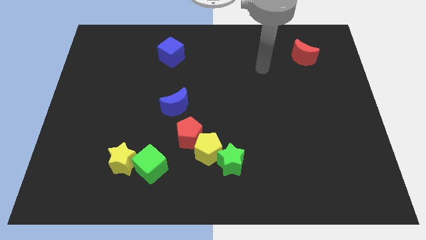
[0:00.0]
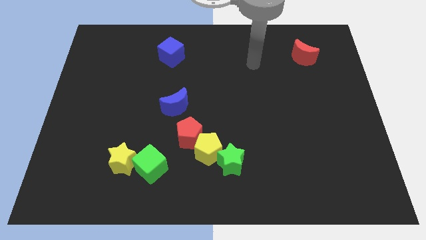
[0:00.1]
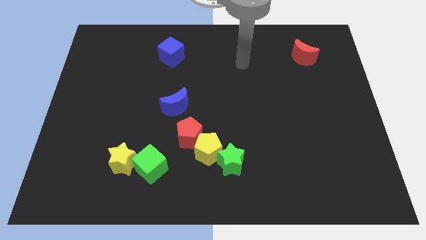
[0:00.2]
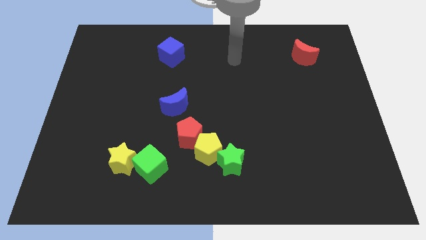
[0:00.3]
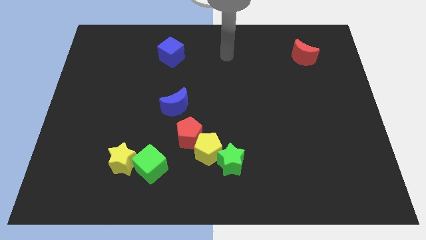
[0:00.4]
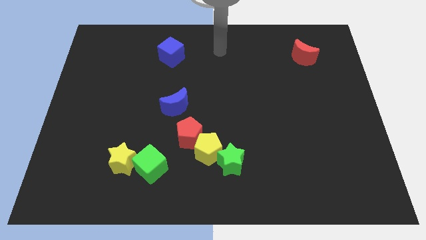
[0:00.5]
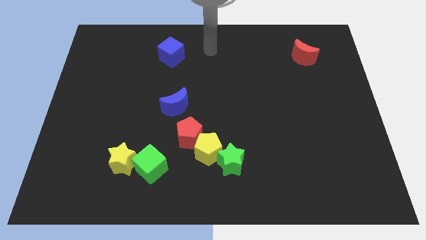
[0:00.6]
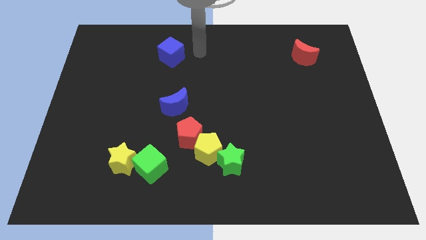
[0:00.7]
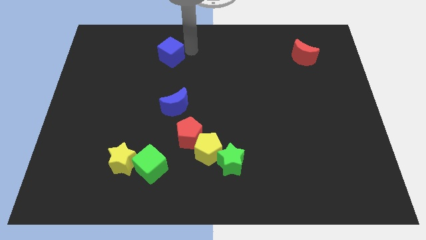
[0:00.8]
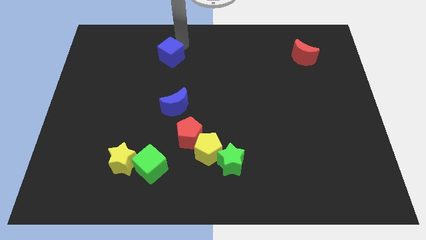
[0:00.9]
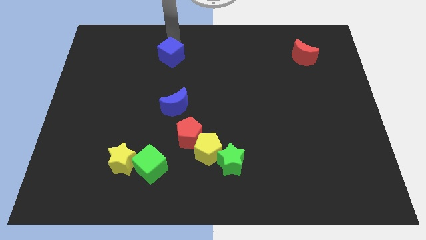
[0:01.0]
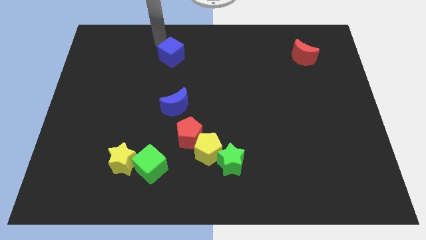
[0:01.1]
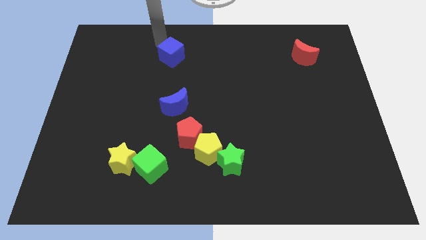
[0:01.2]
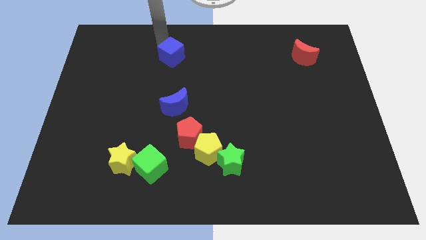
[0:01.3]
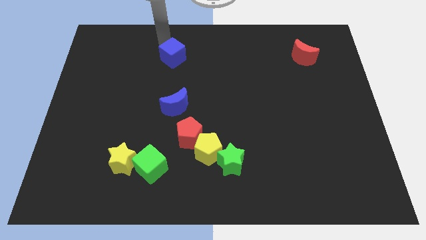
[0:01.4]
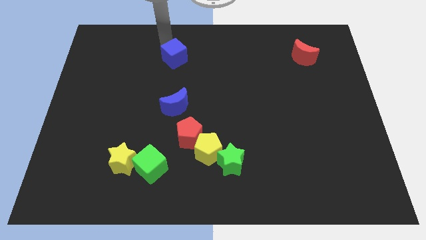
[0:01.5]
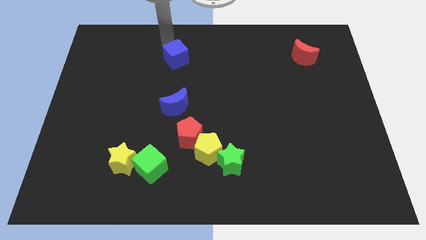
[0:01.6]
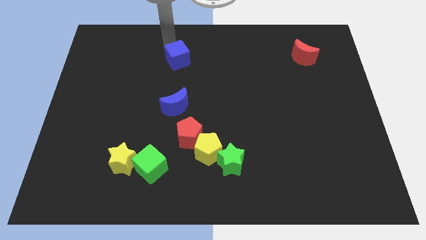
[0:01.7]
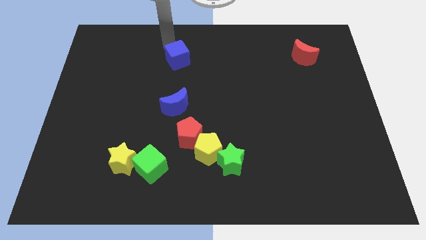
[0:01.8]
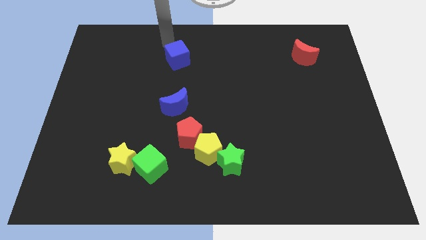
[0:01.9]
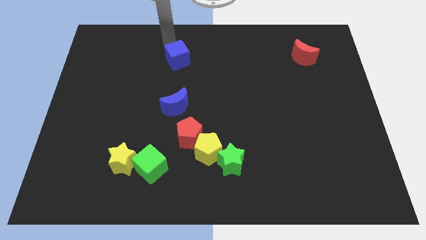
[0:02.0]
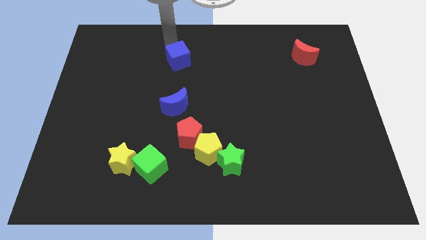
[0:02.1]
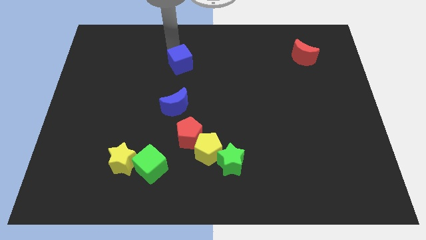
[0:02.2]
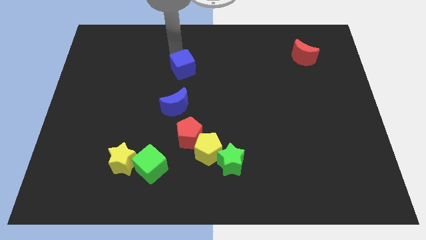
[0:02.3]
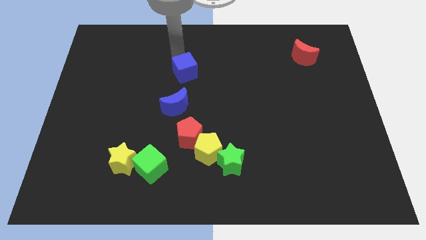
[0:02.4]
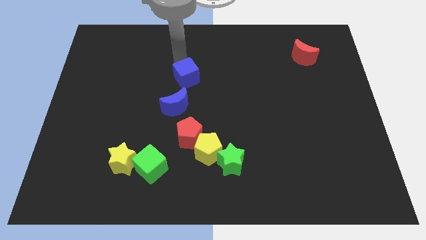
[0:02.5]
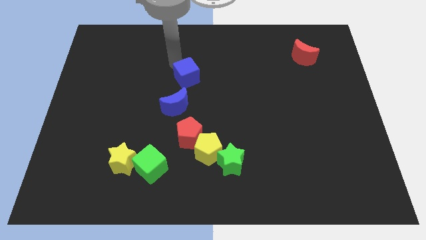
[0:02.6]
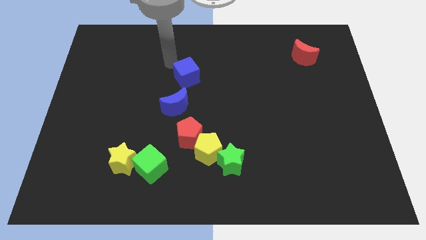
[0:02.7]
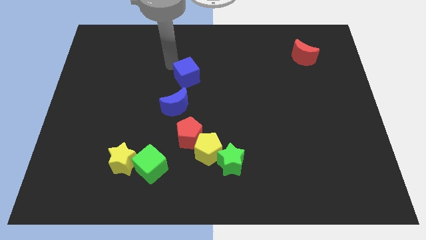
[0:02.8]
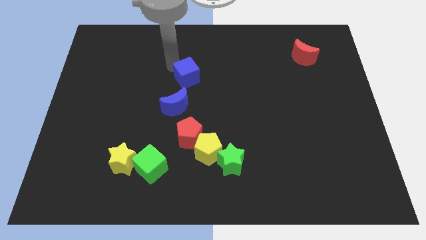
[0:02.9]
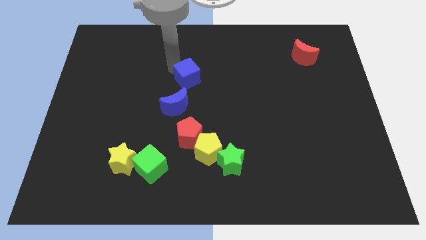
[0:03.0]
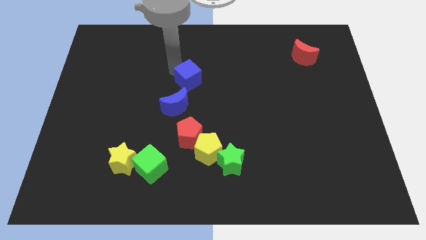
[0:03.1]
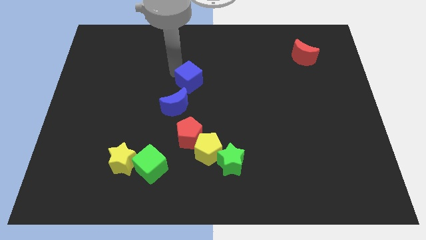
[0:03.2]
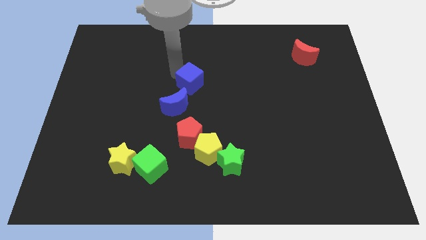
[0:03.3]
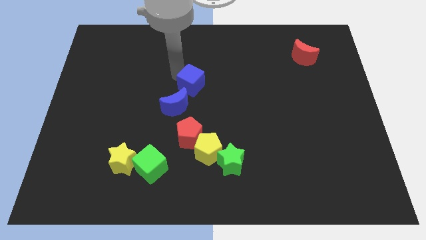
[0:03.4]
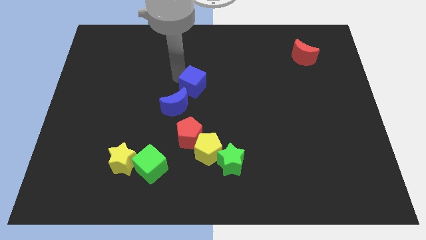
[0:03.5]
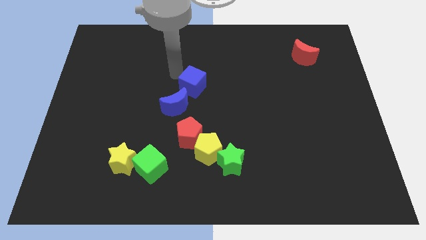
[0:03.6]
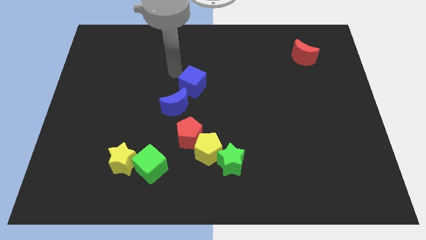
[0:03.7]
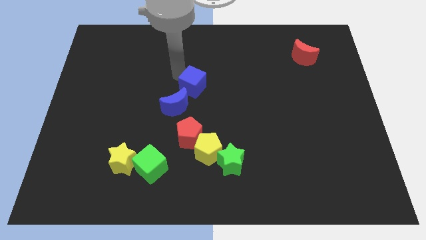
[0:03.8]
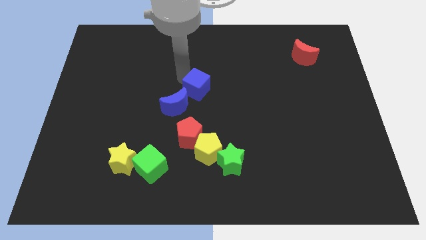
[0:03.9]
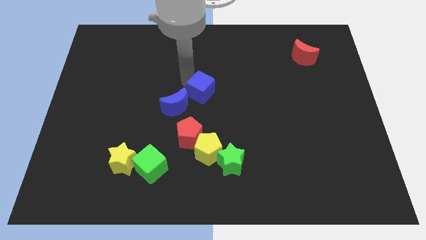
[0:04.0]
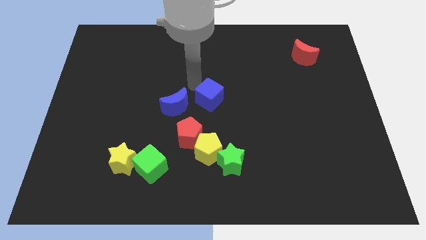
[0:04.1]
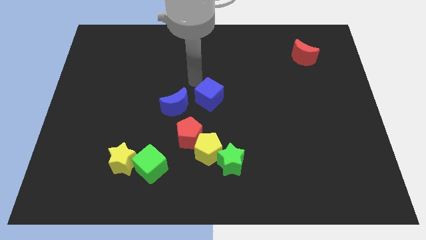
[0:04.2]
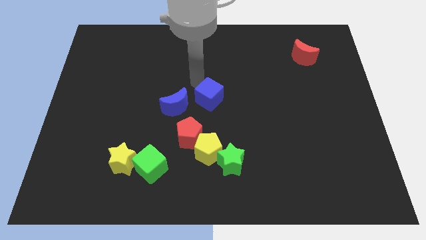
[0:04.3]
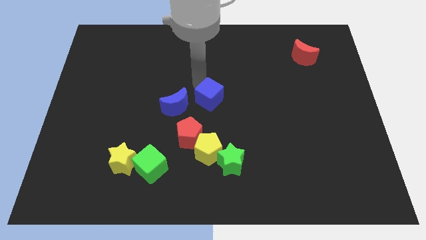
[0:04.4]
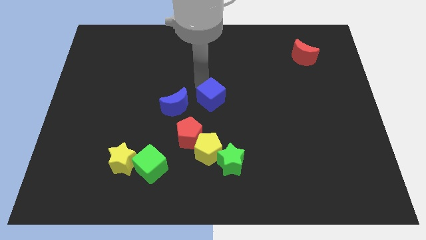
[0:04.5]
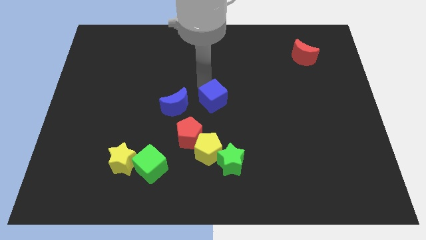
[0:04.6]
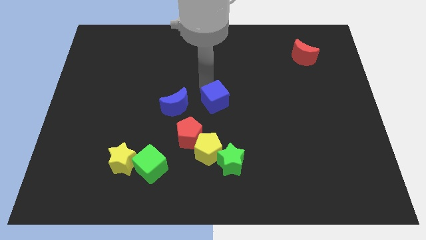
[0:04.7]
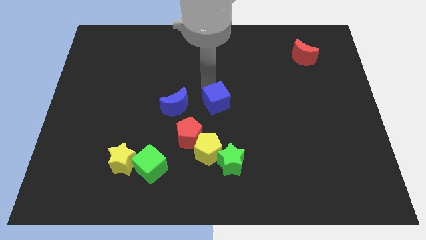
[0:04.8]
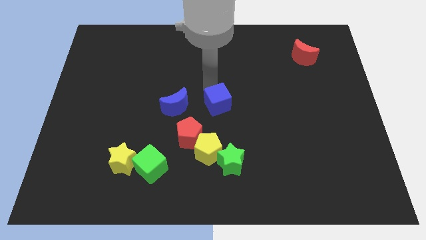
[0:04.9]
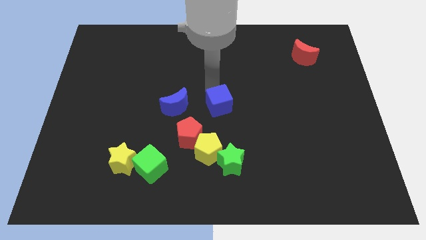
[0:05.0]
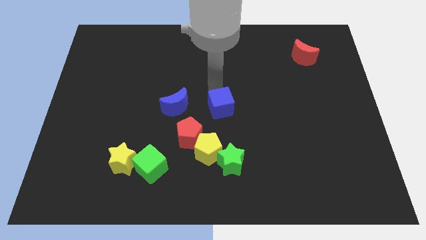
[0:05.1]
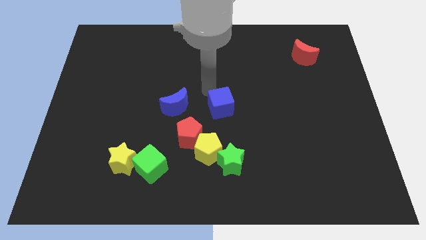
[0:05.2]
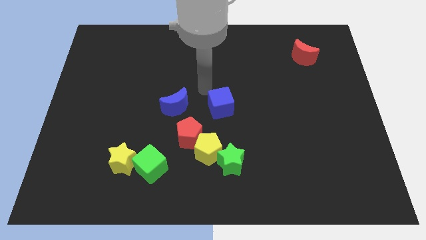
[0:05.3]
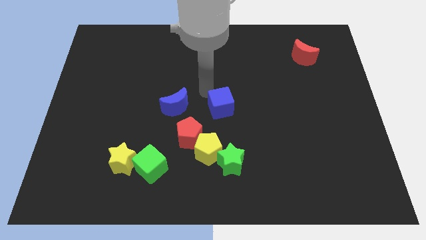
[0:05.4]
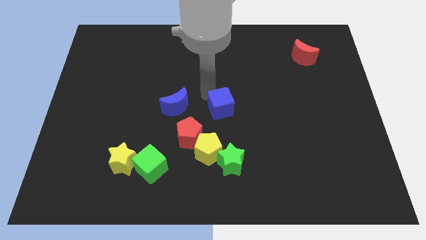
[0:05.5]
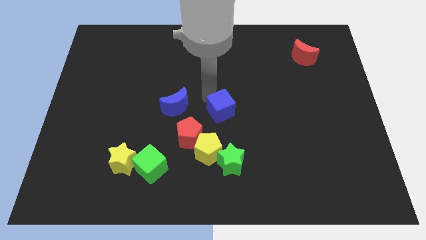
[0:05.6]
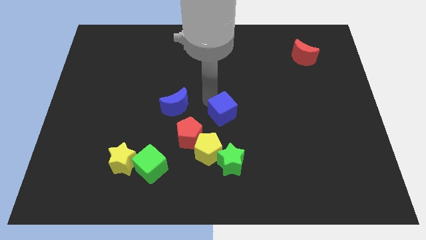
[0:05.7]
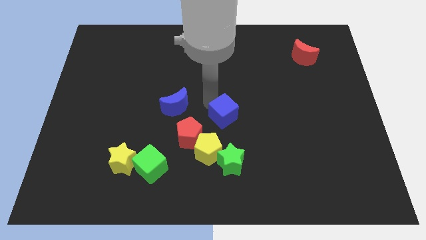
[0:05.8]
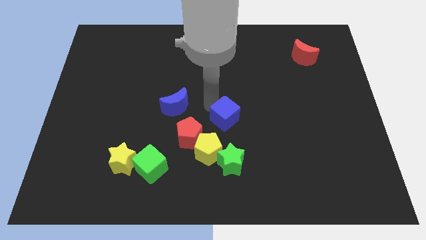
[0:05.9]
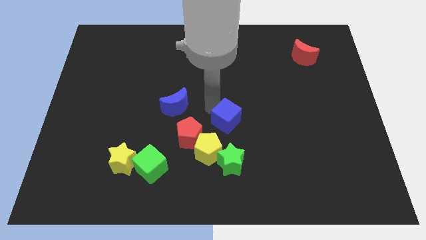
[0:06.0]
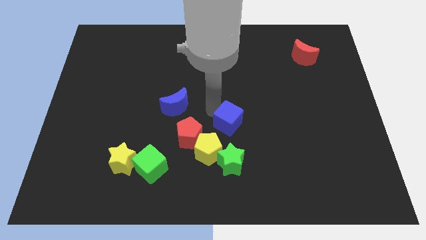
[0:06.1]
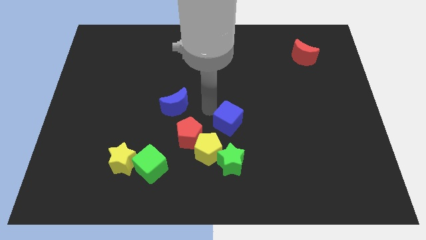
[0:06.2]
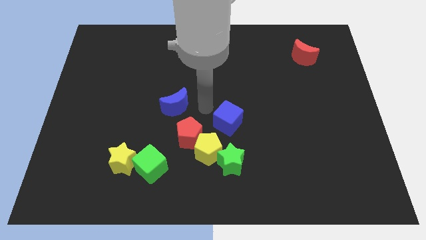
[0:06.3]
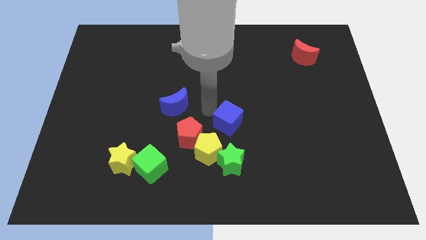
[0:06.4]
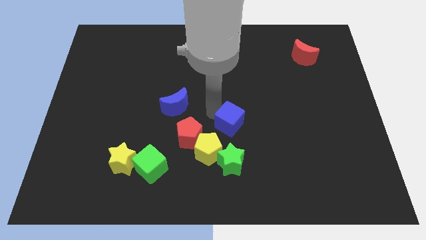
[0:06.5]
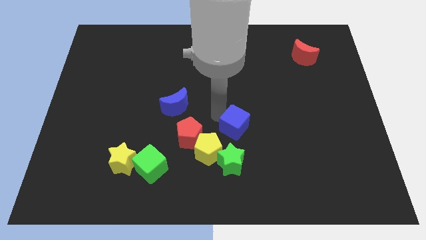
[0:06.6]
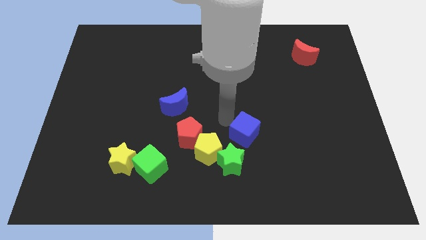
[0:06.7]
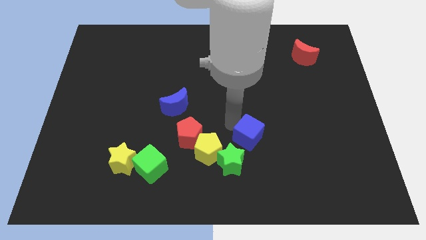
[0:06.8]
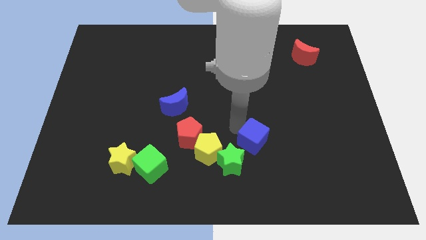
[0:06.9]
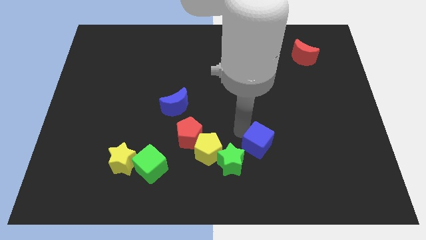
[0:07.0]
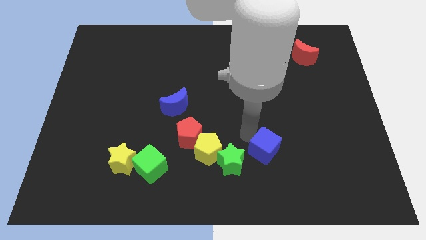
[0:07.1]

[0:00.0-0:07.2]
move the blue cube to the right of the green star

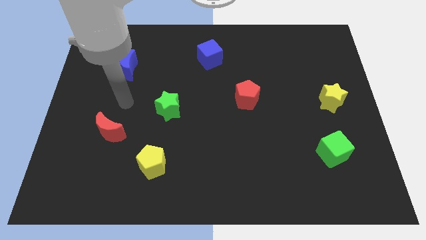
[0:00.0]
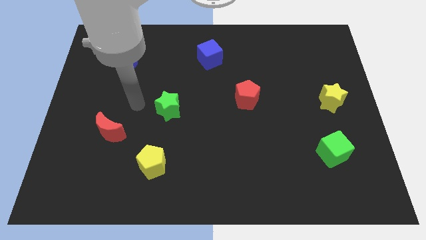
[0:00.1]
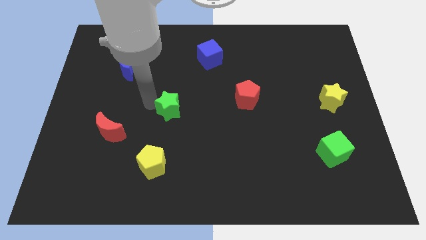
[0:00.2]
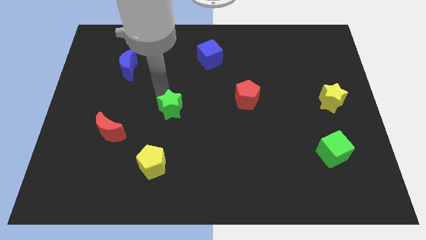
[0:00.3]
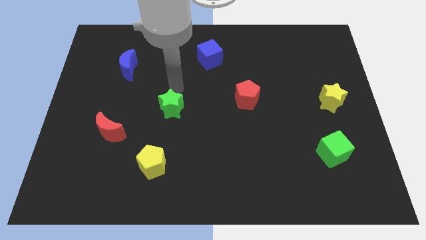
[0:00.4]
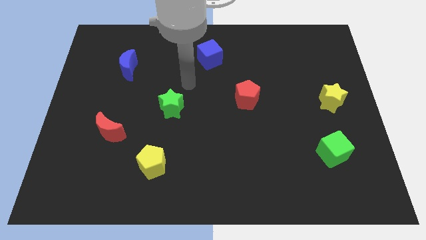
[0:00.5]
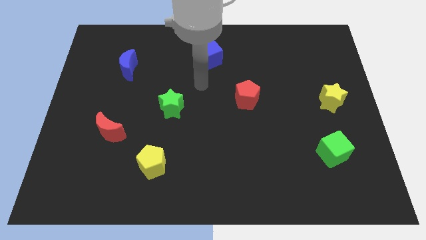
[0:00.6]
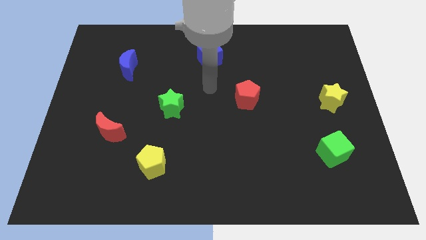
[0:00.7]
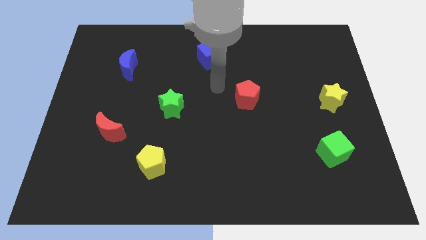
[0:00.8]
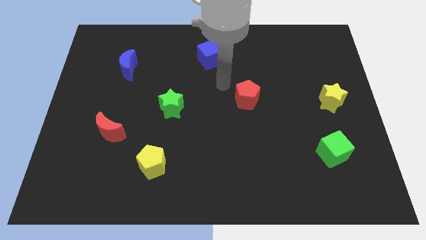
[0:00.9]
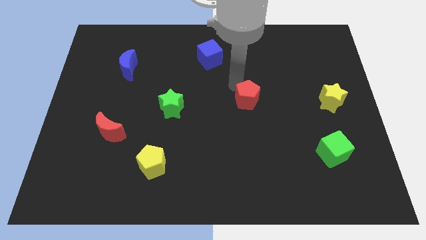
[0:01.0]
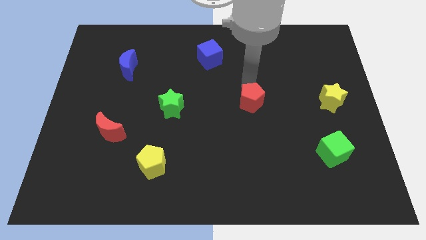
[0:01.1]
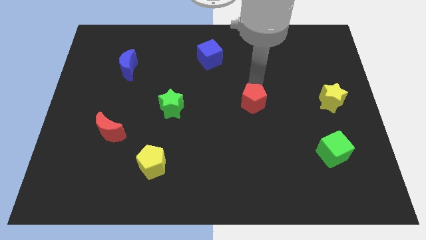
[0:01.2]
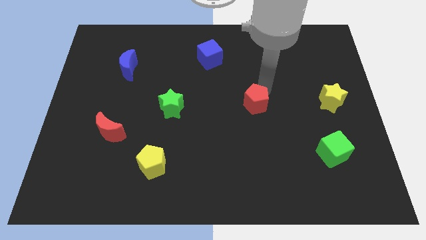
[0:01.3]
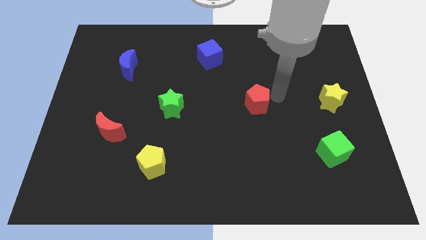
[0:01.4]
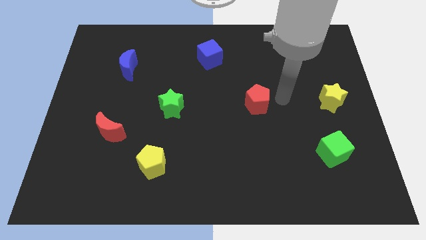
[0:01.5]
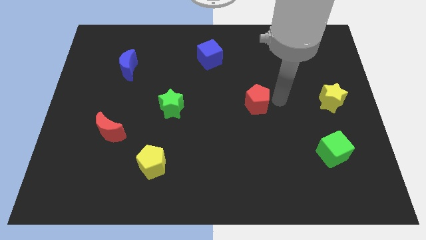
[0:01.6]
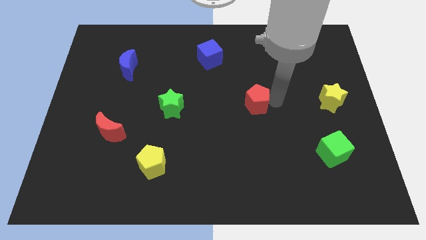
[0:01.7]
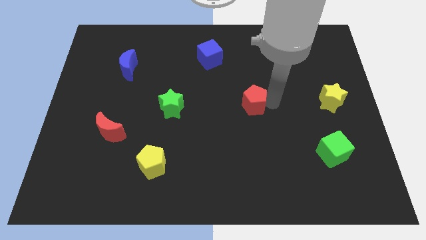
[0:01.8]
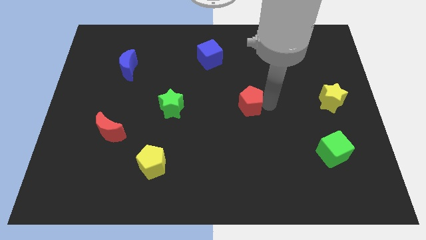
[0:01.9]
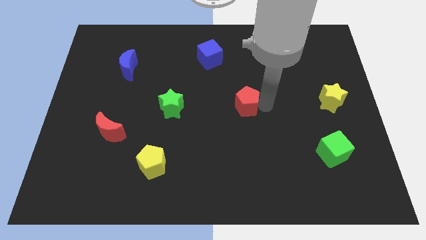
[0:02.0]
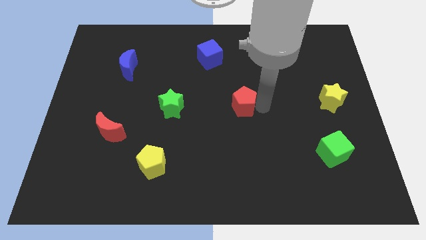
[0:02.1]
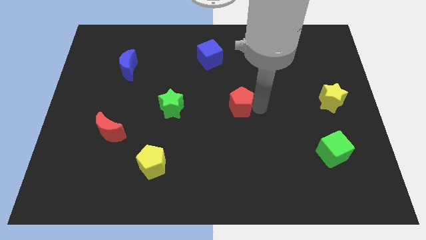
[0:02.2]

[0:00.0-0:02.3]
slide the red pentagon to the right side of the green star
